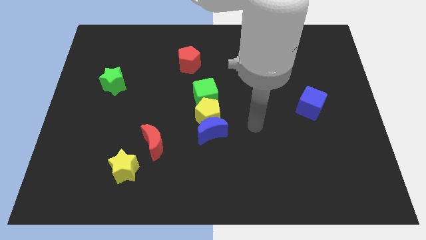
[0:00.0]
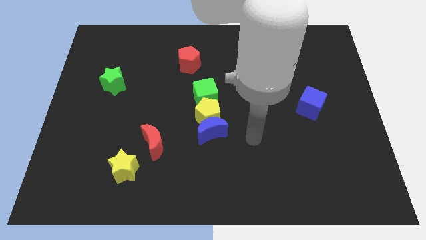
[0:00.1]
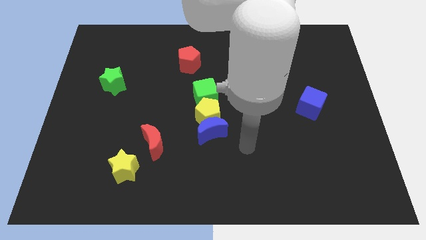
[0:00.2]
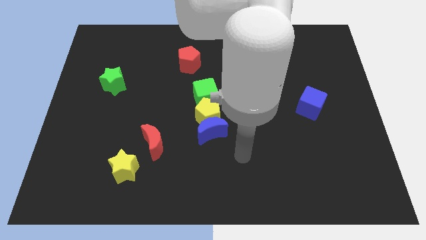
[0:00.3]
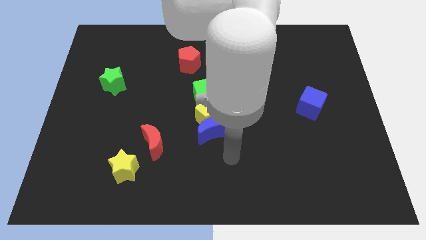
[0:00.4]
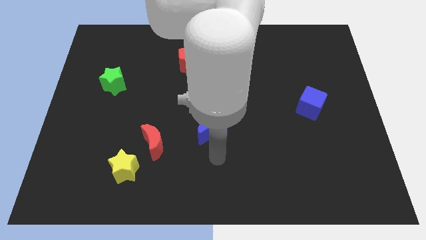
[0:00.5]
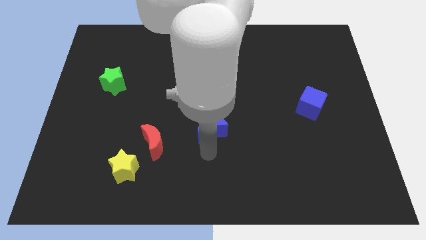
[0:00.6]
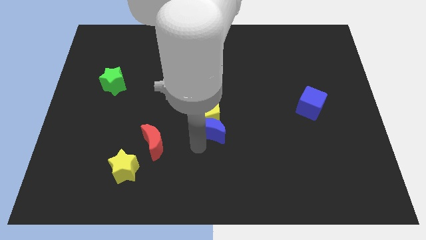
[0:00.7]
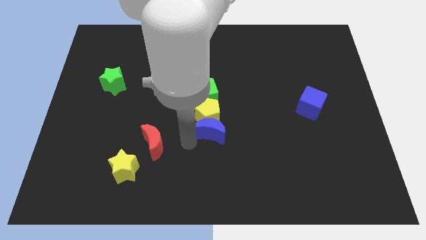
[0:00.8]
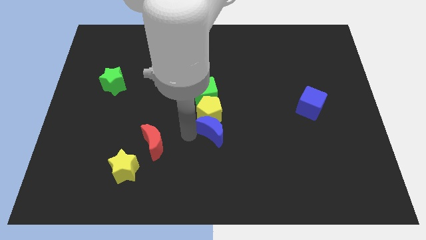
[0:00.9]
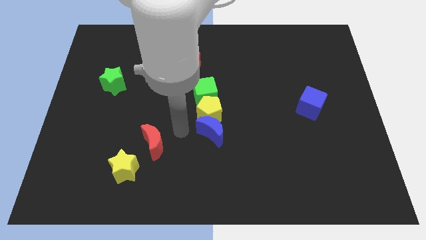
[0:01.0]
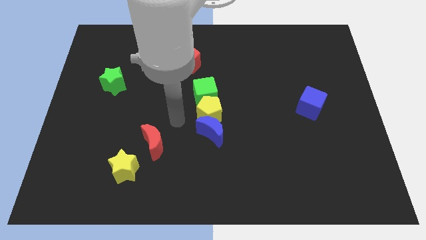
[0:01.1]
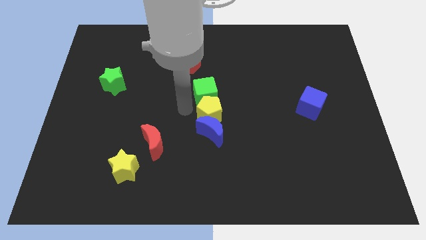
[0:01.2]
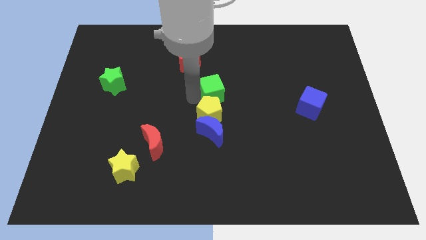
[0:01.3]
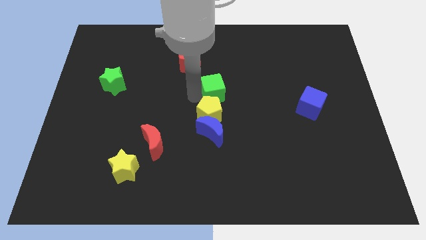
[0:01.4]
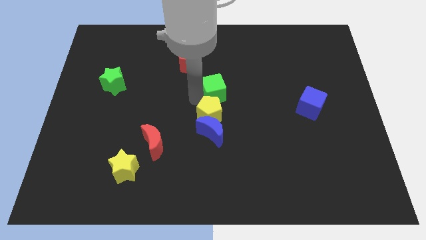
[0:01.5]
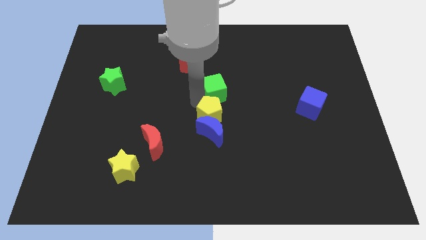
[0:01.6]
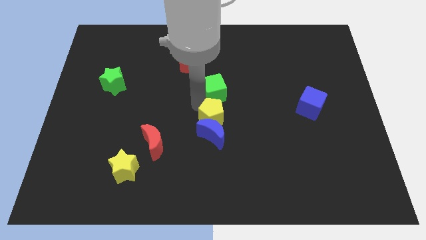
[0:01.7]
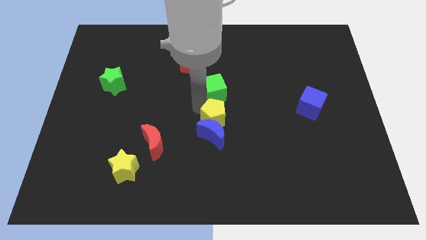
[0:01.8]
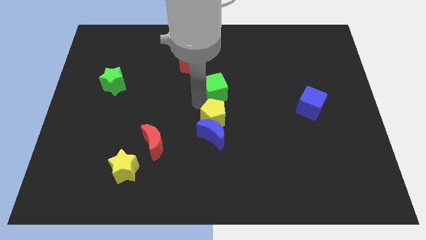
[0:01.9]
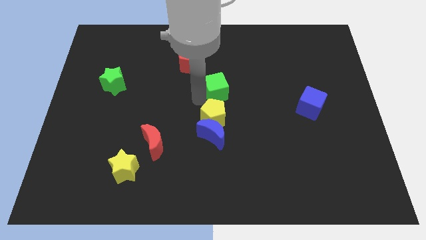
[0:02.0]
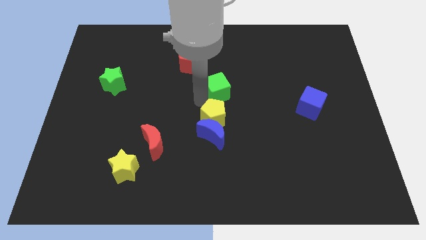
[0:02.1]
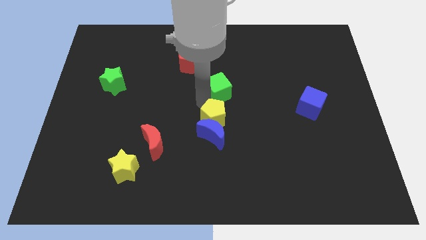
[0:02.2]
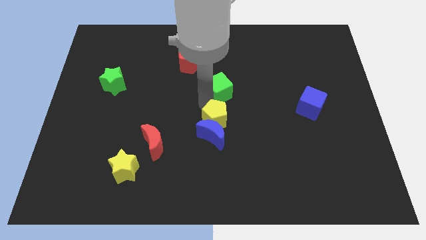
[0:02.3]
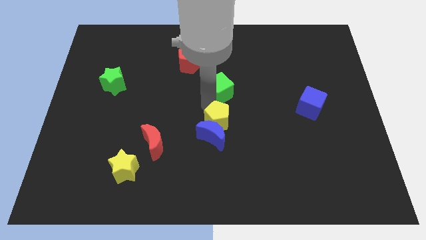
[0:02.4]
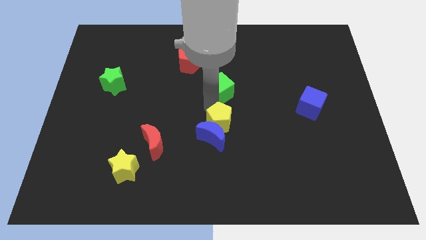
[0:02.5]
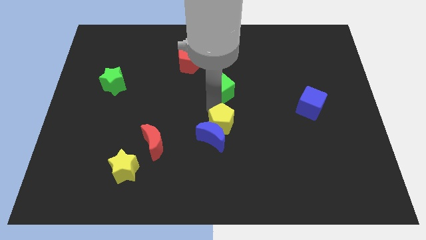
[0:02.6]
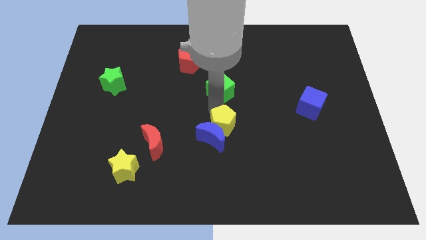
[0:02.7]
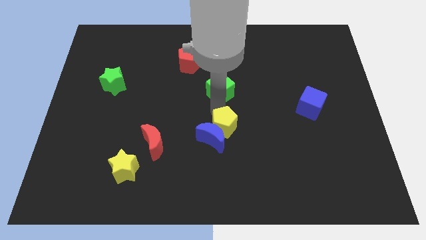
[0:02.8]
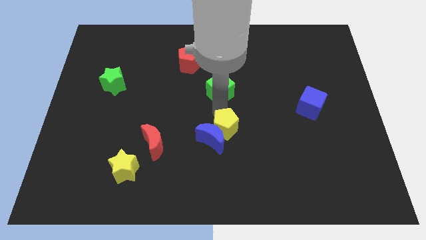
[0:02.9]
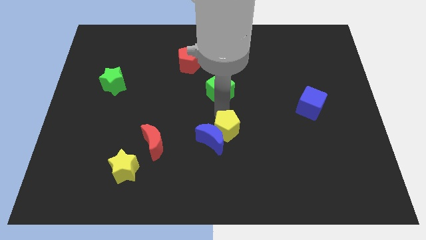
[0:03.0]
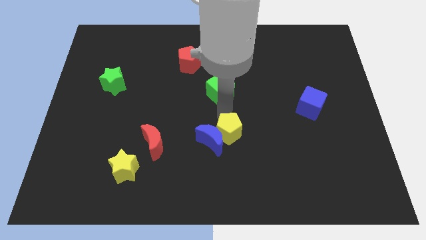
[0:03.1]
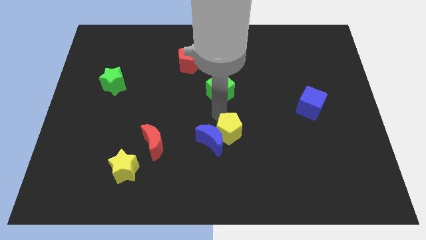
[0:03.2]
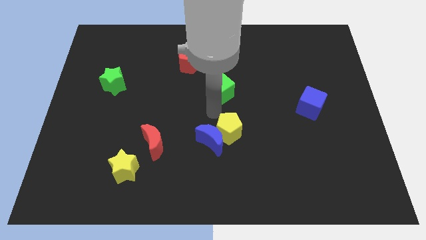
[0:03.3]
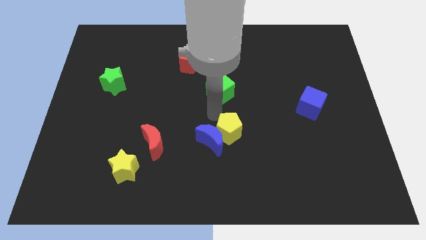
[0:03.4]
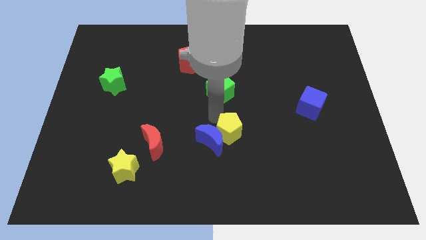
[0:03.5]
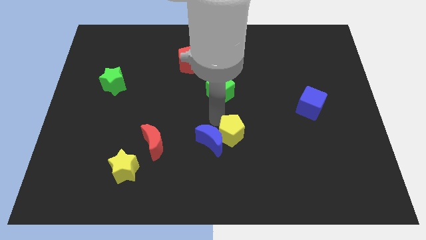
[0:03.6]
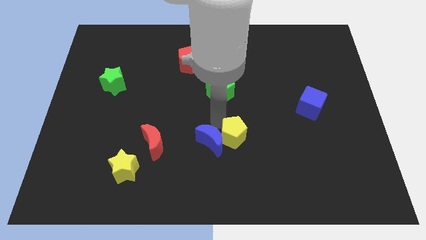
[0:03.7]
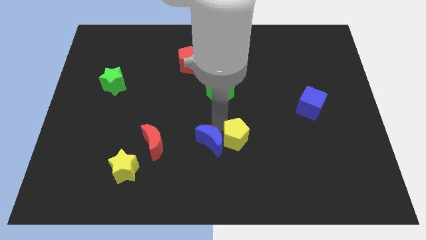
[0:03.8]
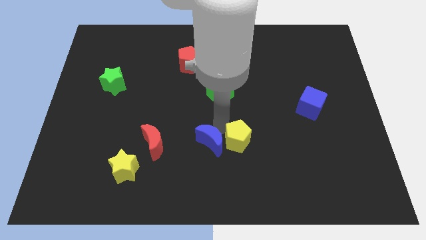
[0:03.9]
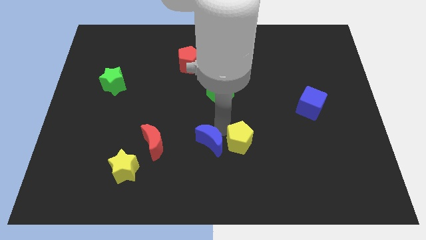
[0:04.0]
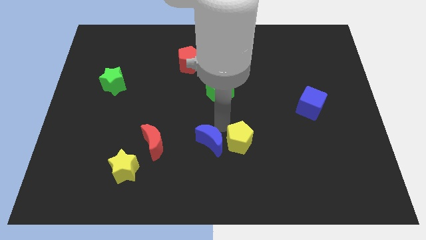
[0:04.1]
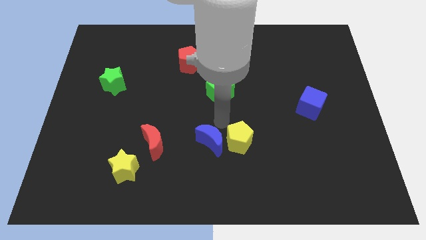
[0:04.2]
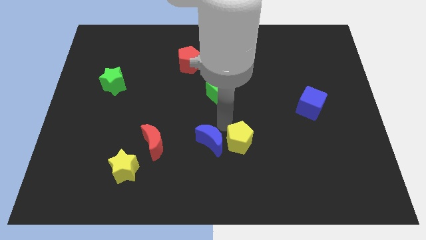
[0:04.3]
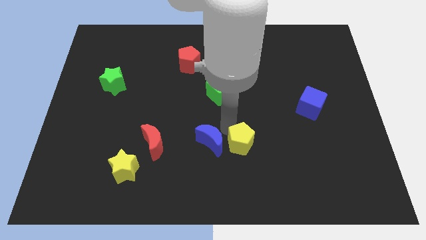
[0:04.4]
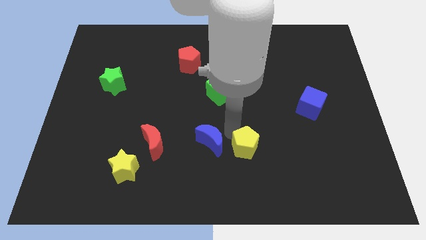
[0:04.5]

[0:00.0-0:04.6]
pull the yellow pentagon apart from the blue moon and green cube

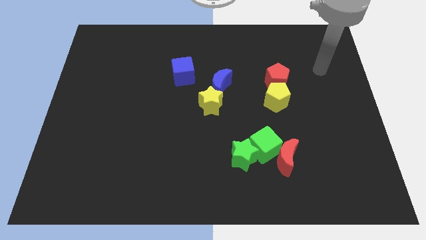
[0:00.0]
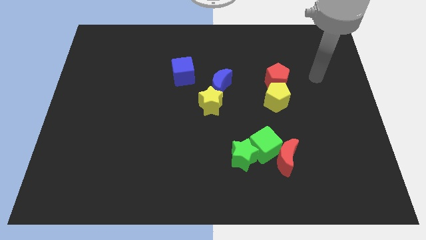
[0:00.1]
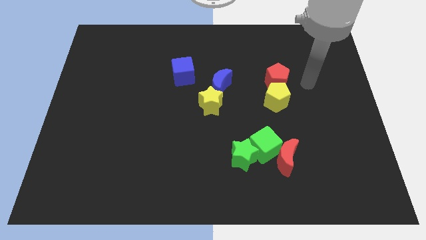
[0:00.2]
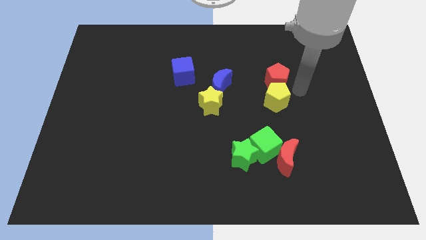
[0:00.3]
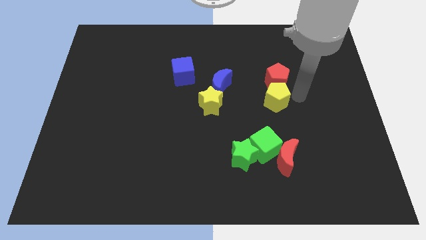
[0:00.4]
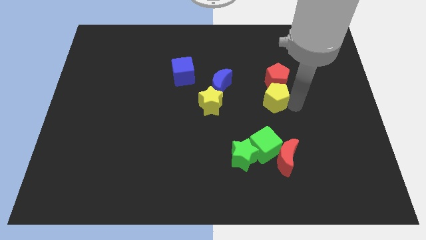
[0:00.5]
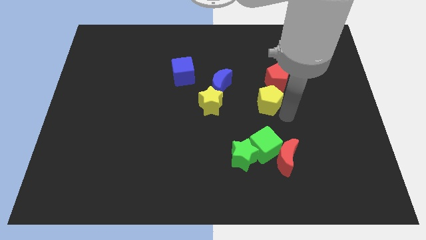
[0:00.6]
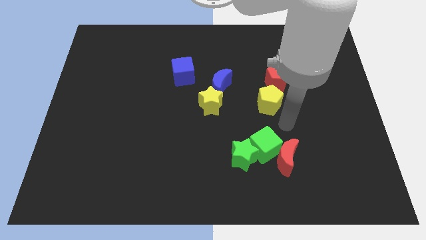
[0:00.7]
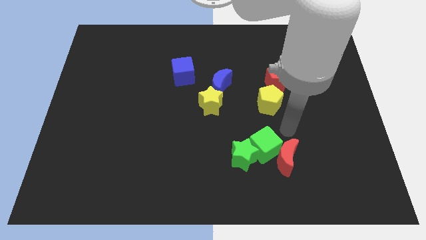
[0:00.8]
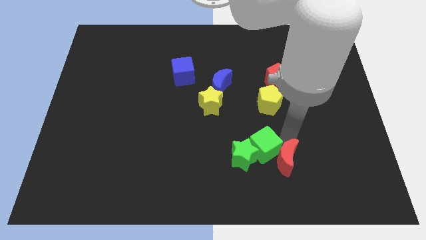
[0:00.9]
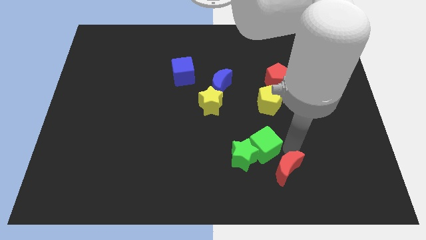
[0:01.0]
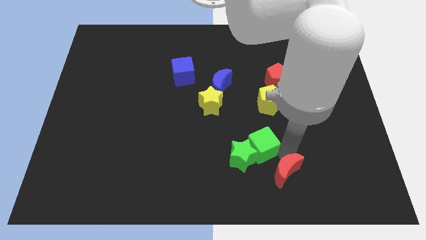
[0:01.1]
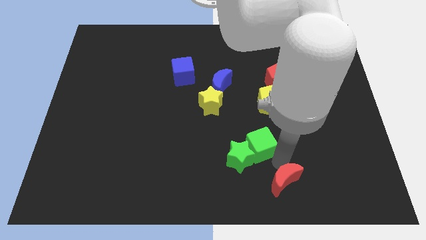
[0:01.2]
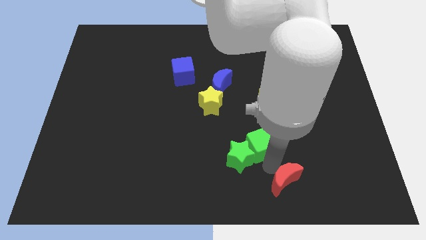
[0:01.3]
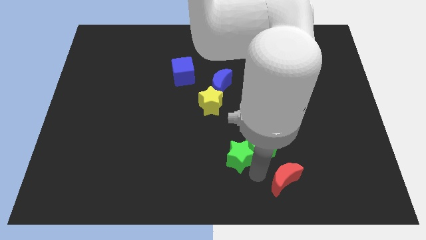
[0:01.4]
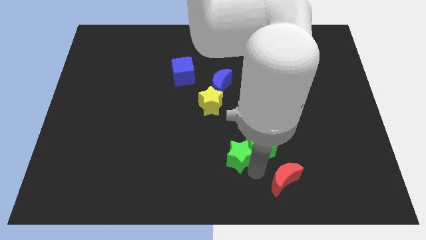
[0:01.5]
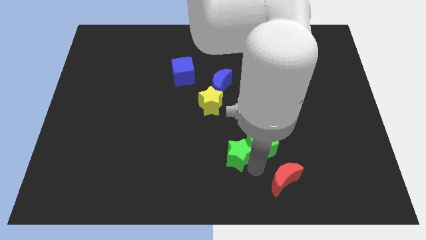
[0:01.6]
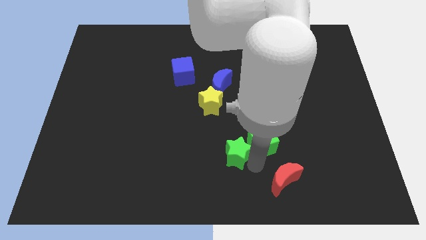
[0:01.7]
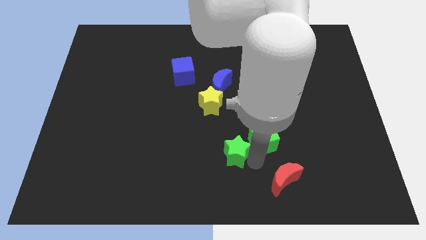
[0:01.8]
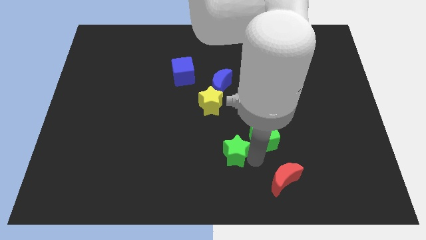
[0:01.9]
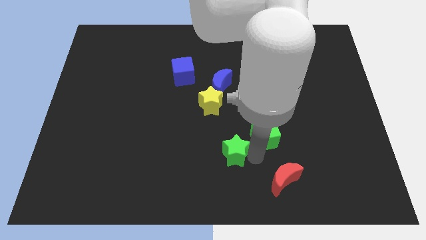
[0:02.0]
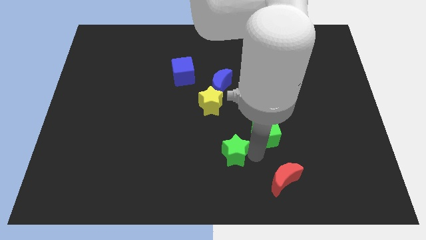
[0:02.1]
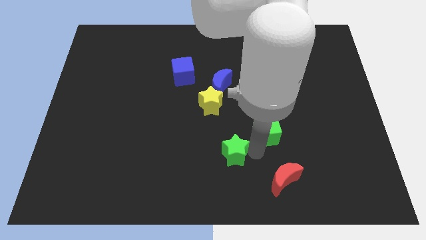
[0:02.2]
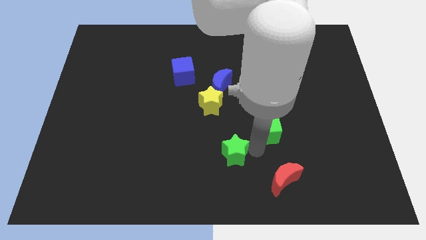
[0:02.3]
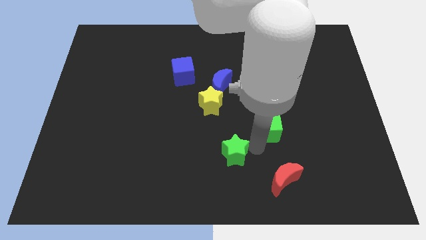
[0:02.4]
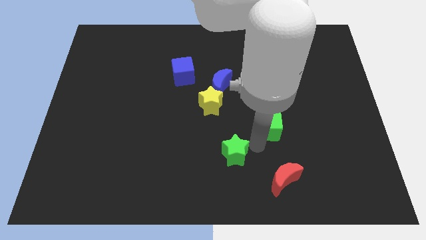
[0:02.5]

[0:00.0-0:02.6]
pull the green cube apart from the red moon and green star

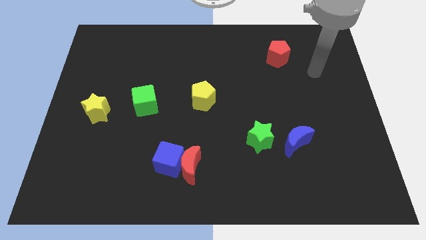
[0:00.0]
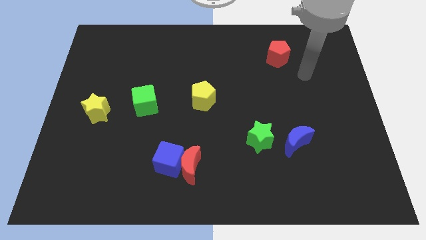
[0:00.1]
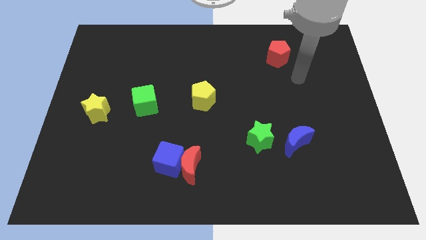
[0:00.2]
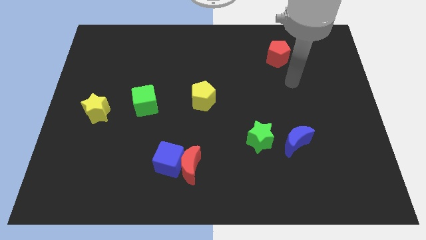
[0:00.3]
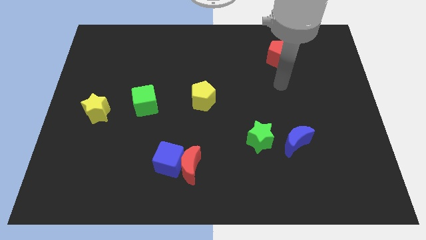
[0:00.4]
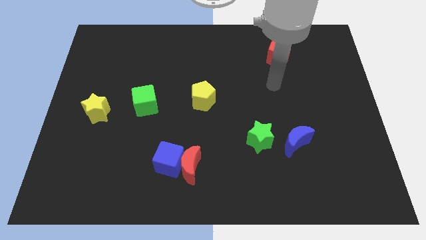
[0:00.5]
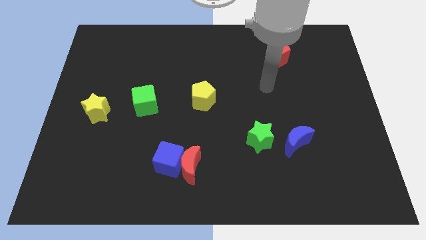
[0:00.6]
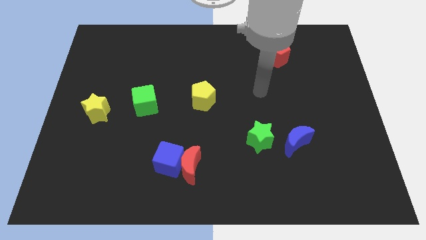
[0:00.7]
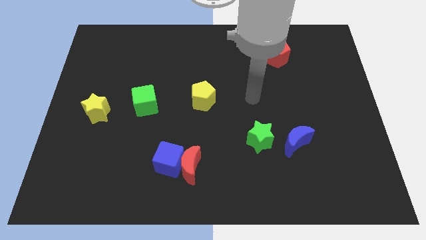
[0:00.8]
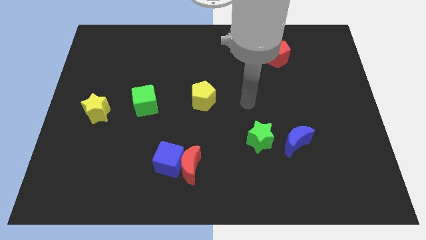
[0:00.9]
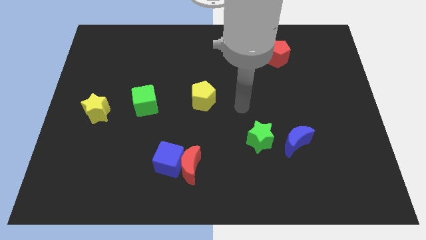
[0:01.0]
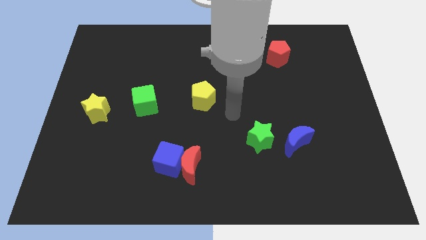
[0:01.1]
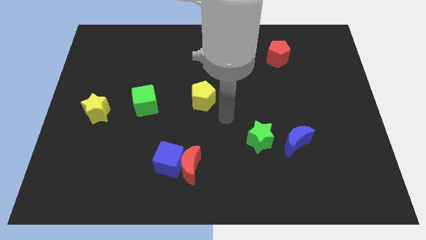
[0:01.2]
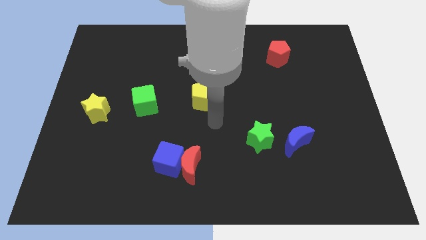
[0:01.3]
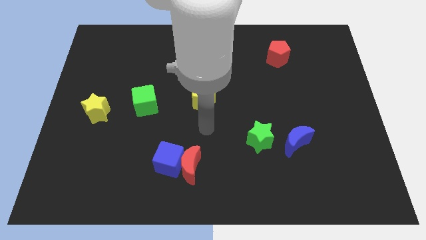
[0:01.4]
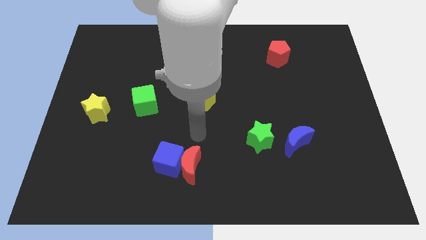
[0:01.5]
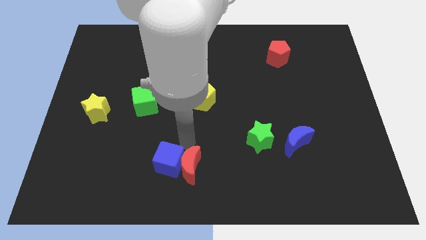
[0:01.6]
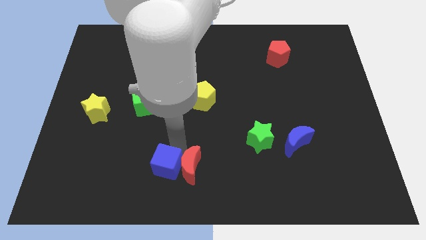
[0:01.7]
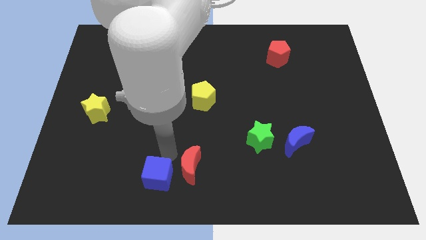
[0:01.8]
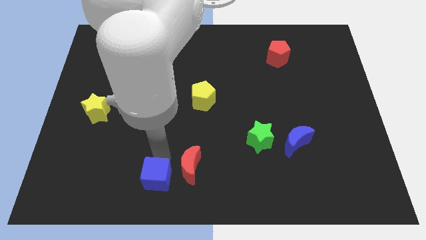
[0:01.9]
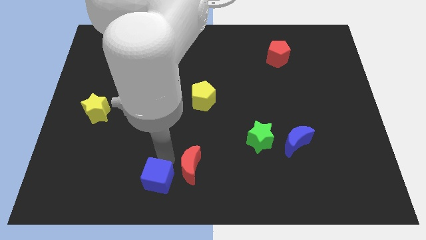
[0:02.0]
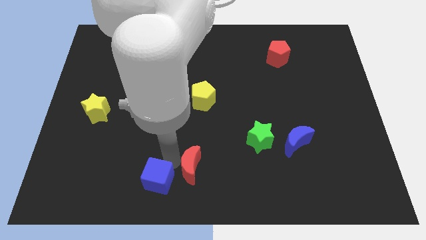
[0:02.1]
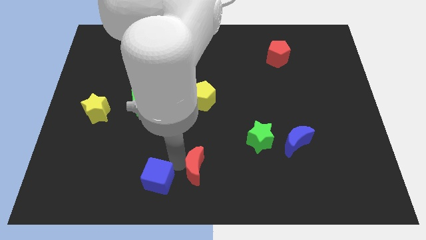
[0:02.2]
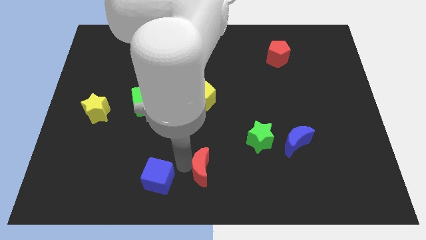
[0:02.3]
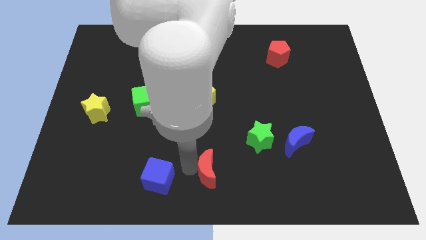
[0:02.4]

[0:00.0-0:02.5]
separate the red moon from the blue cube
